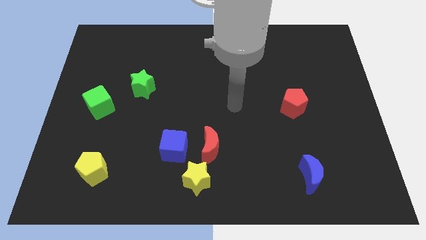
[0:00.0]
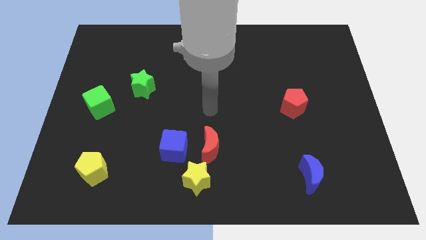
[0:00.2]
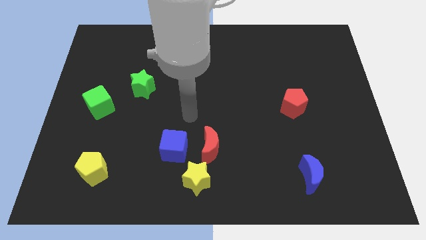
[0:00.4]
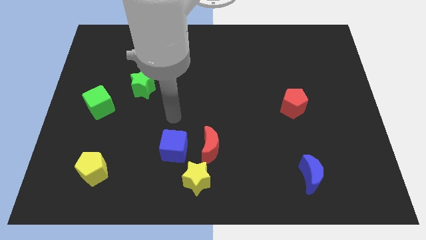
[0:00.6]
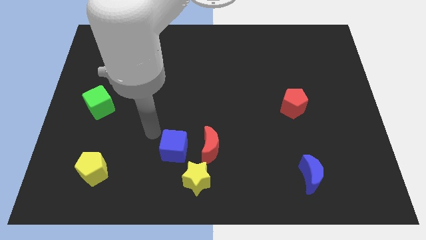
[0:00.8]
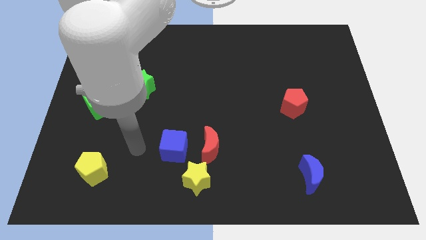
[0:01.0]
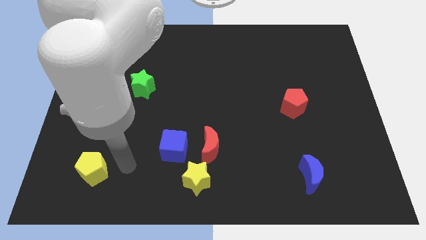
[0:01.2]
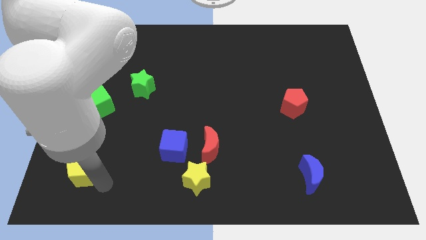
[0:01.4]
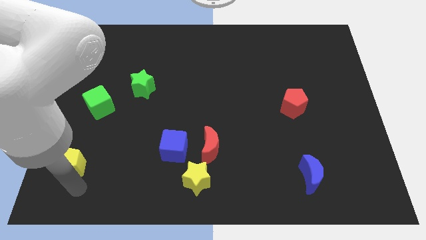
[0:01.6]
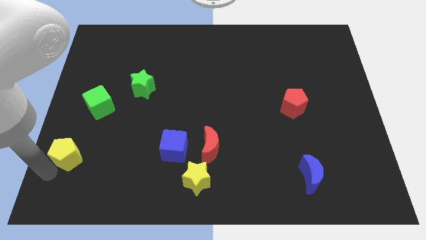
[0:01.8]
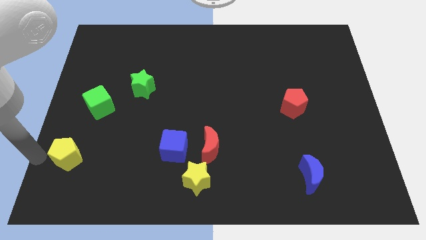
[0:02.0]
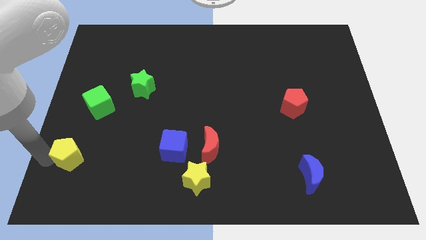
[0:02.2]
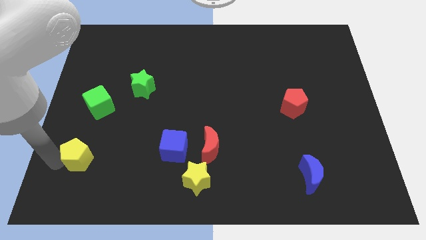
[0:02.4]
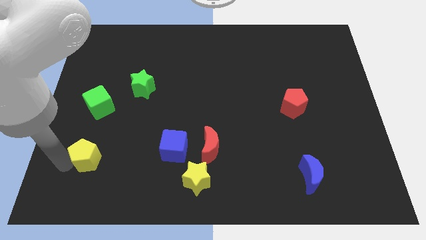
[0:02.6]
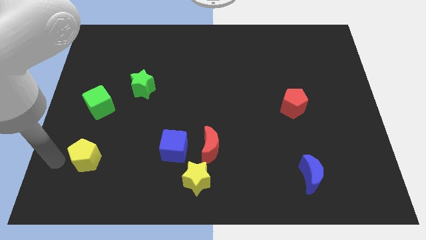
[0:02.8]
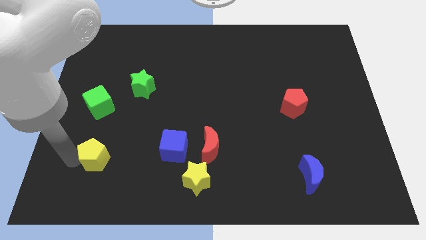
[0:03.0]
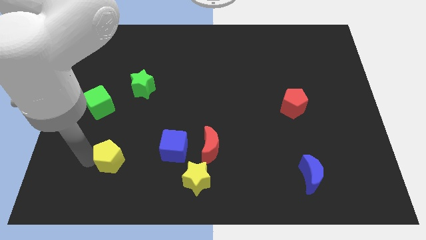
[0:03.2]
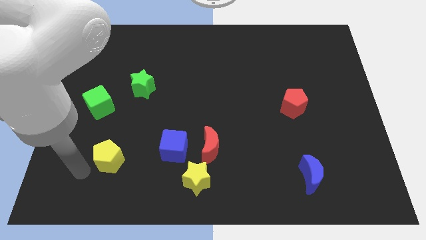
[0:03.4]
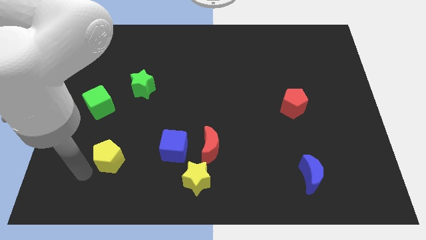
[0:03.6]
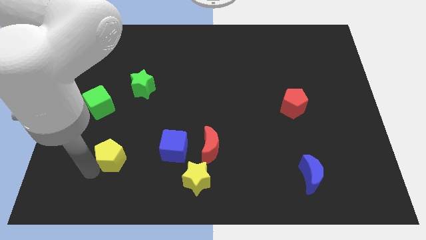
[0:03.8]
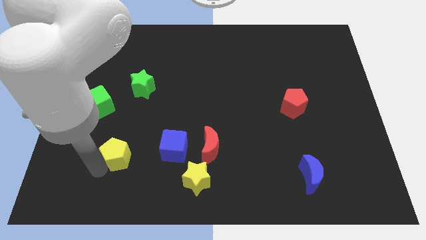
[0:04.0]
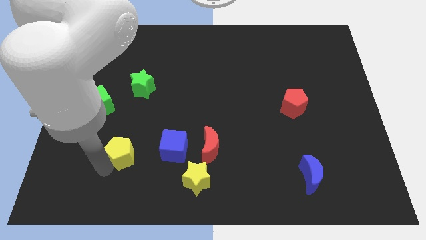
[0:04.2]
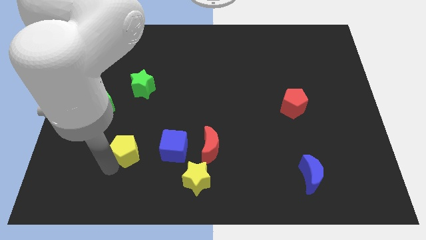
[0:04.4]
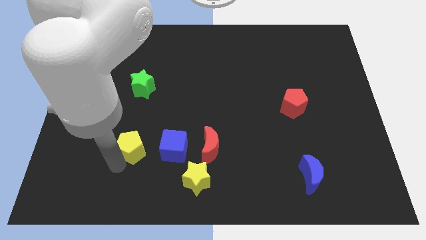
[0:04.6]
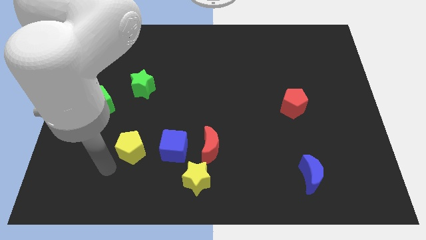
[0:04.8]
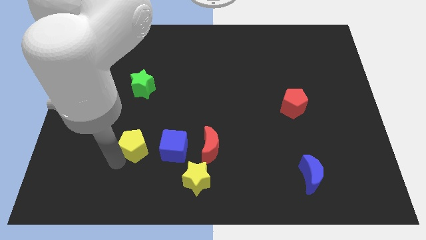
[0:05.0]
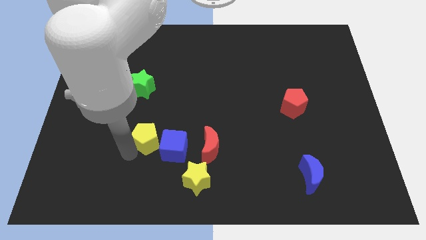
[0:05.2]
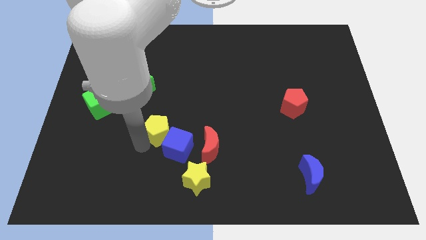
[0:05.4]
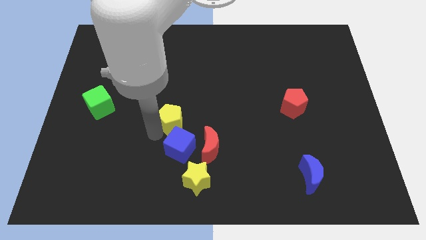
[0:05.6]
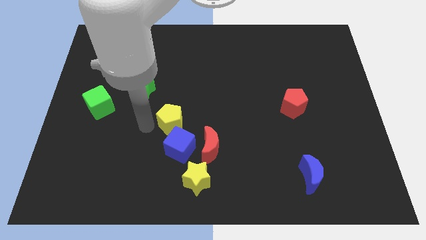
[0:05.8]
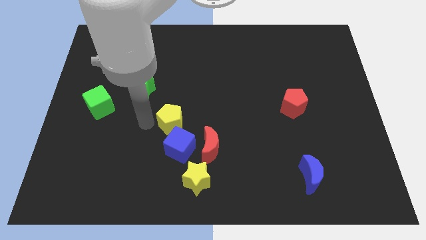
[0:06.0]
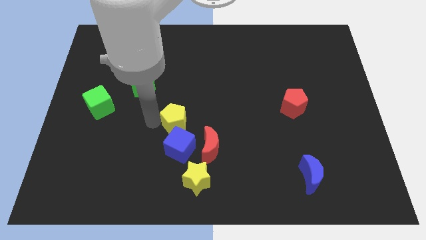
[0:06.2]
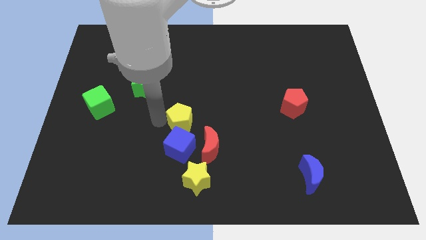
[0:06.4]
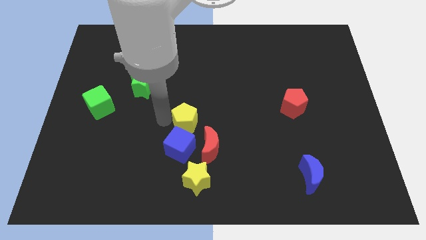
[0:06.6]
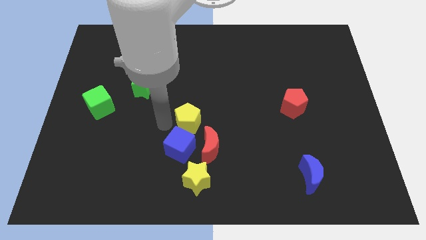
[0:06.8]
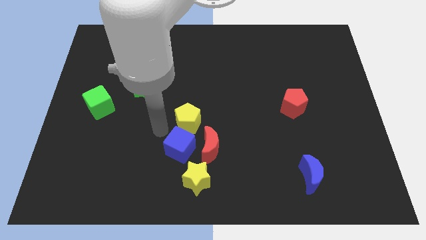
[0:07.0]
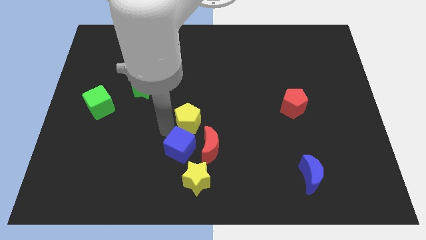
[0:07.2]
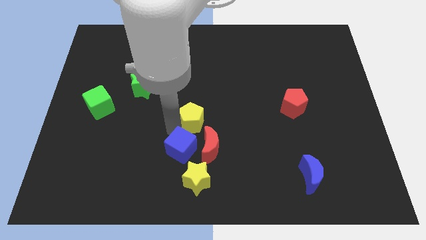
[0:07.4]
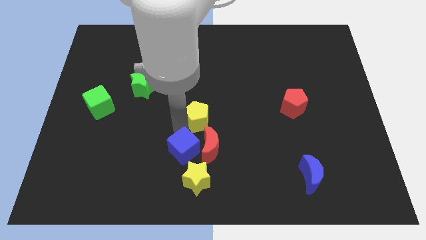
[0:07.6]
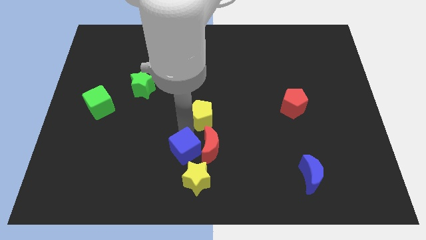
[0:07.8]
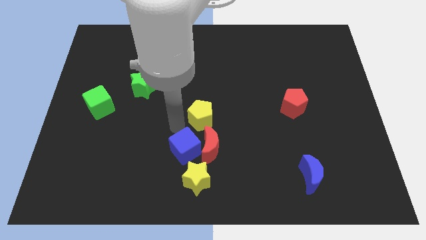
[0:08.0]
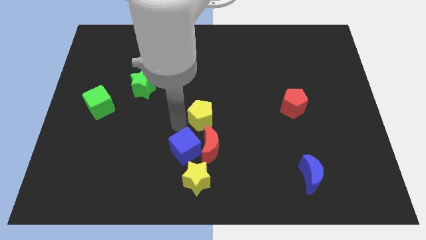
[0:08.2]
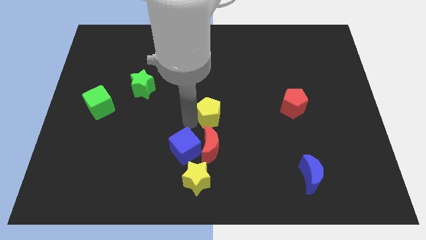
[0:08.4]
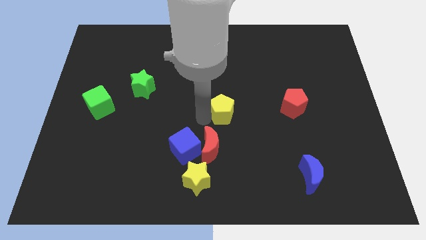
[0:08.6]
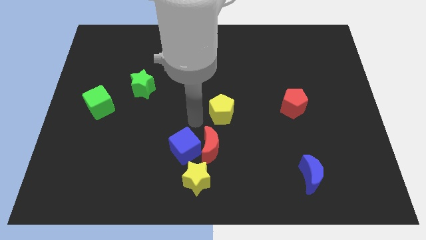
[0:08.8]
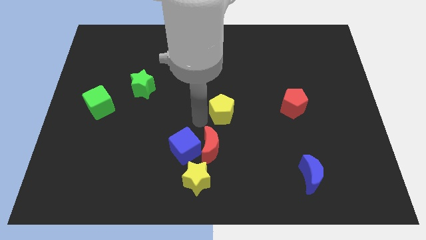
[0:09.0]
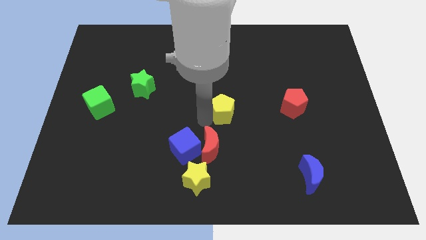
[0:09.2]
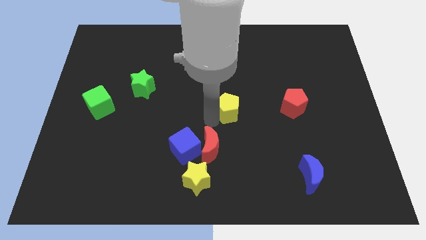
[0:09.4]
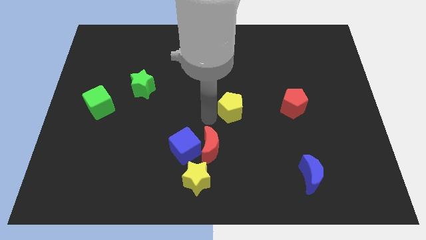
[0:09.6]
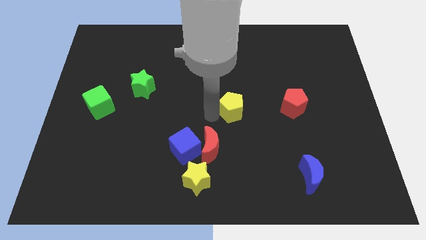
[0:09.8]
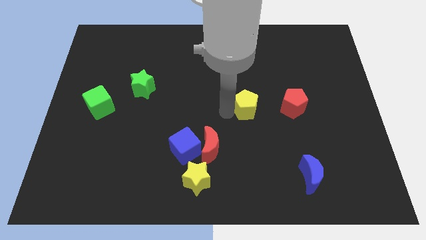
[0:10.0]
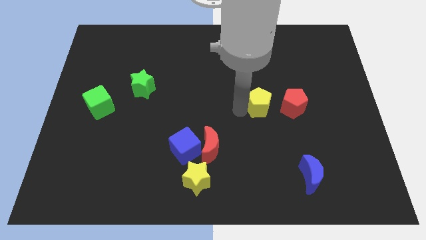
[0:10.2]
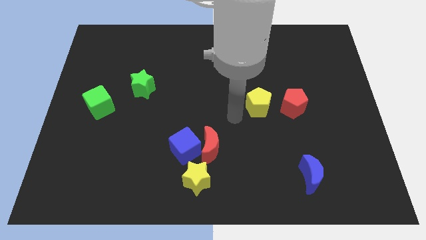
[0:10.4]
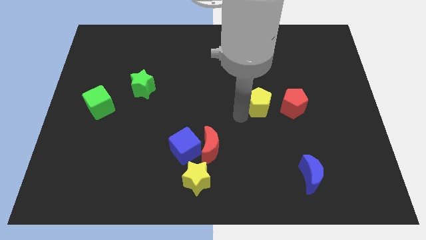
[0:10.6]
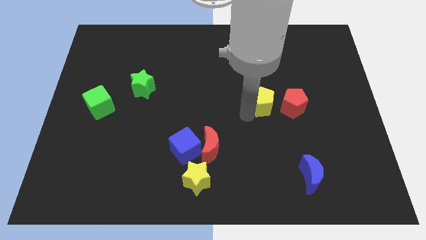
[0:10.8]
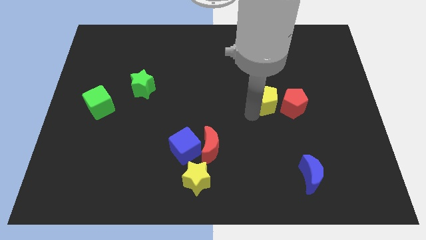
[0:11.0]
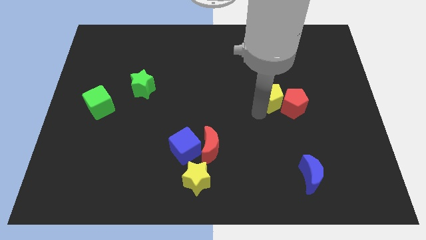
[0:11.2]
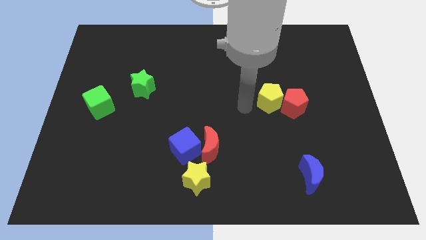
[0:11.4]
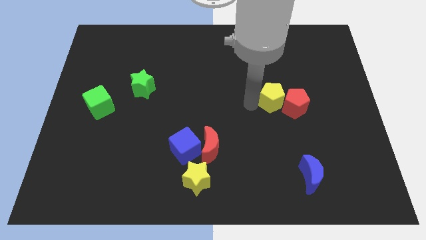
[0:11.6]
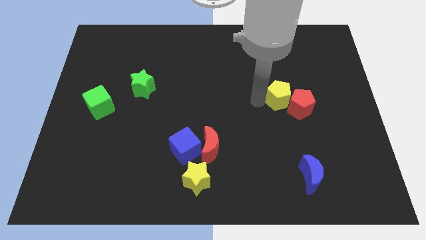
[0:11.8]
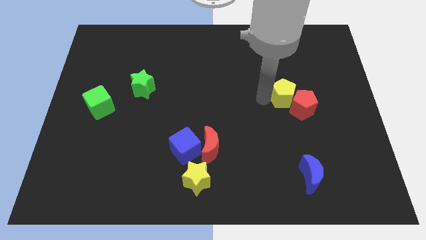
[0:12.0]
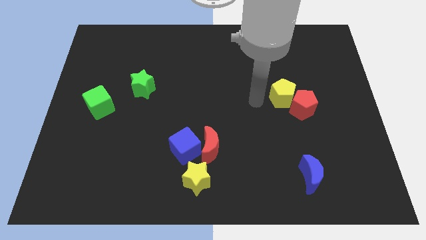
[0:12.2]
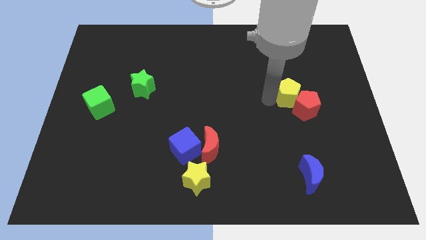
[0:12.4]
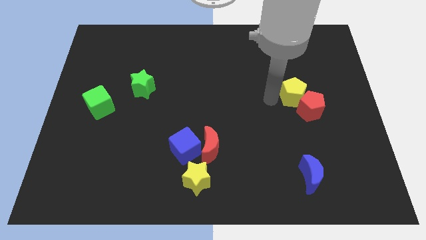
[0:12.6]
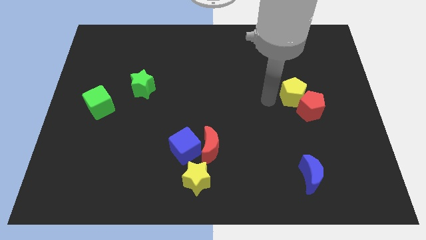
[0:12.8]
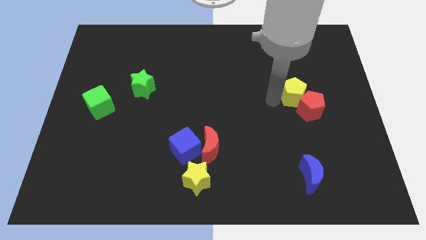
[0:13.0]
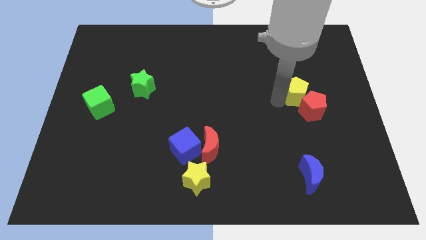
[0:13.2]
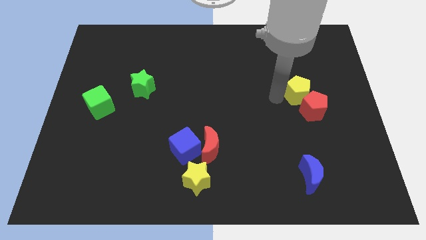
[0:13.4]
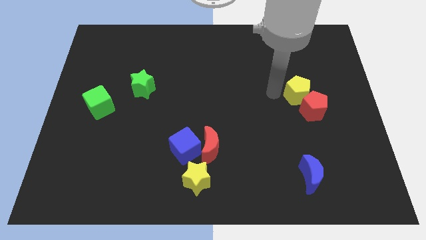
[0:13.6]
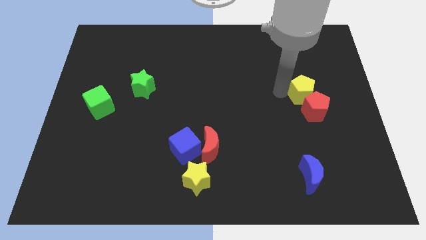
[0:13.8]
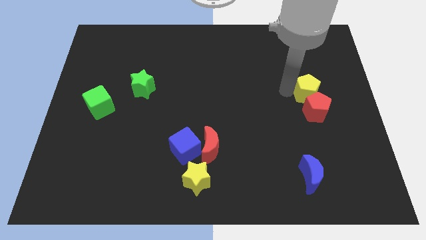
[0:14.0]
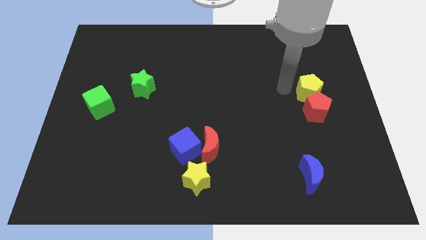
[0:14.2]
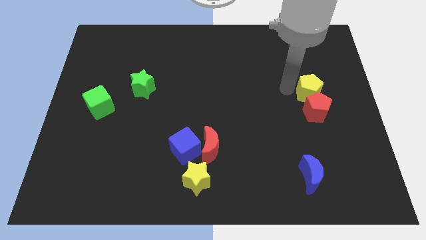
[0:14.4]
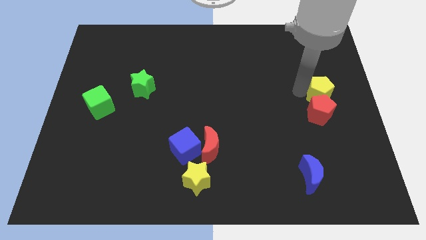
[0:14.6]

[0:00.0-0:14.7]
slide the yellow pentagon to the right side
